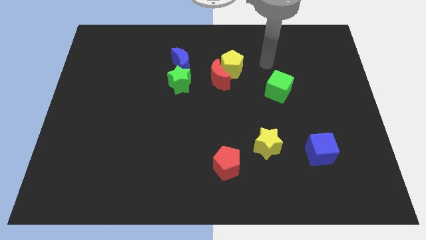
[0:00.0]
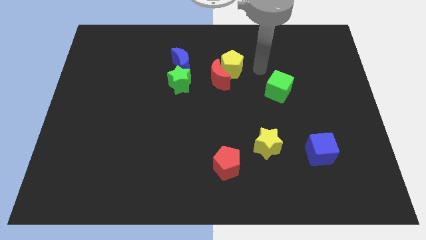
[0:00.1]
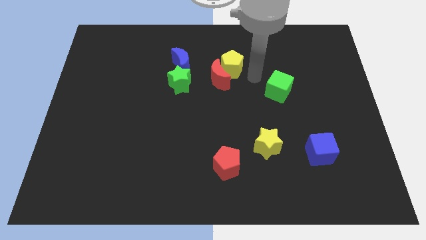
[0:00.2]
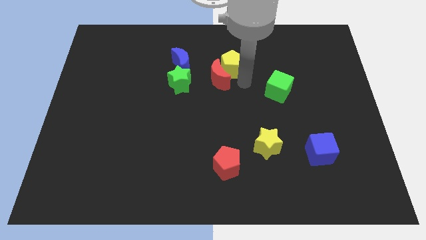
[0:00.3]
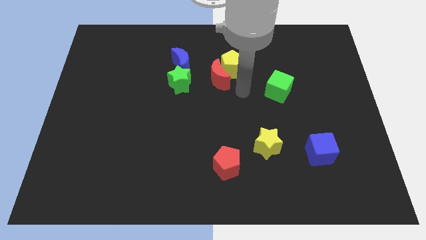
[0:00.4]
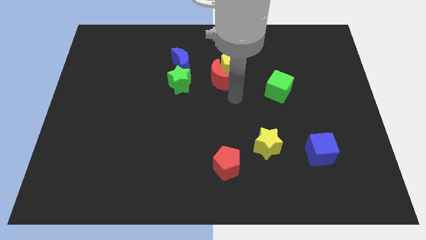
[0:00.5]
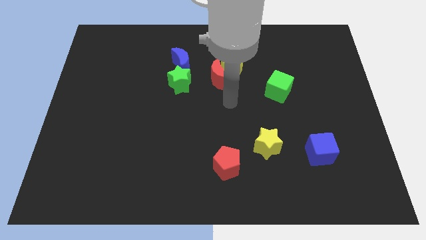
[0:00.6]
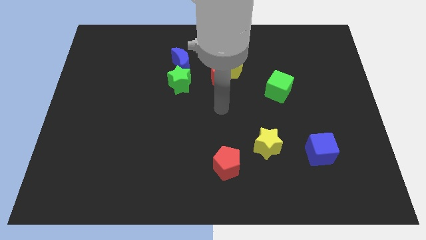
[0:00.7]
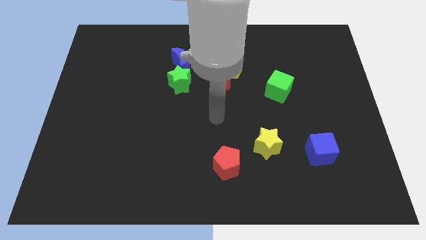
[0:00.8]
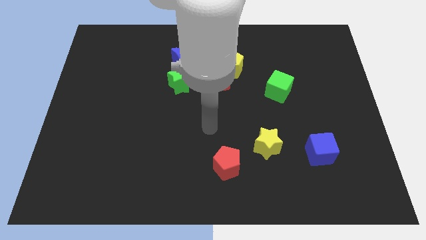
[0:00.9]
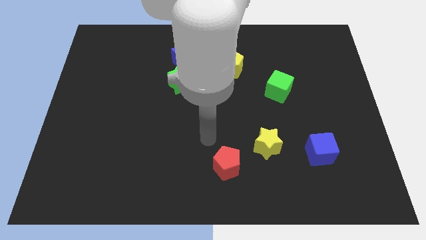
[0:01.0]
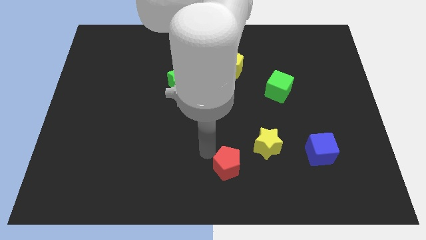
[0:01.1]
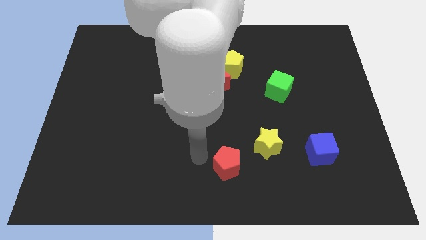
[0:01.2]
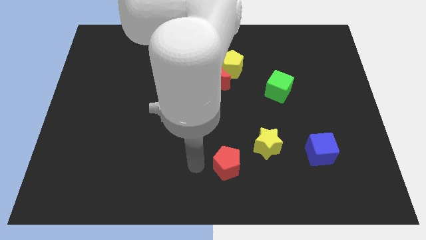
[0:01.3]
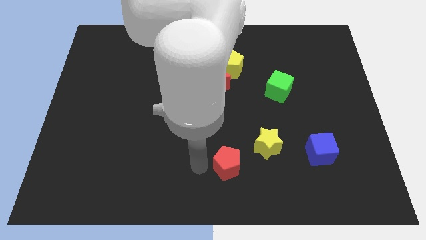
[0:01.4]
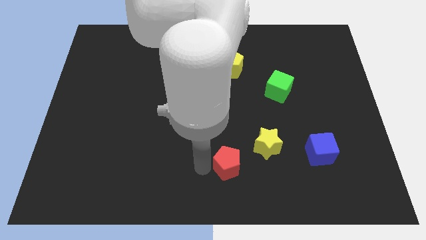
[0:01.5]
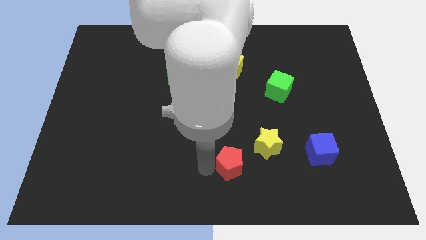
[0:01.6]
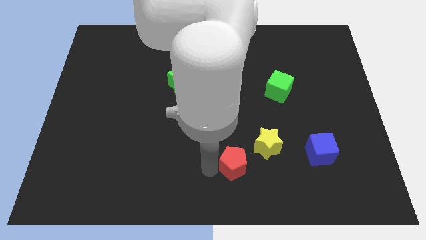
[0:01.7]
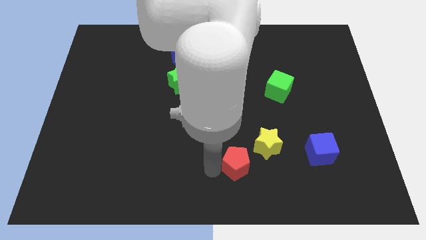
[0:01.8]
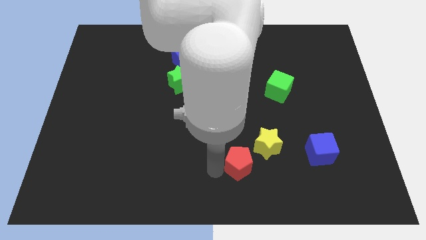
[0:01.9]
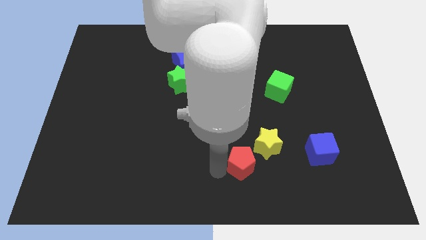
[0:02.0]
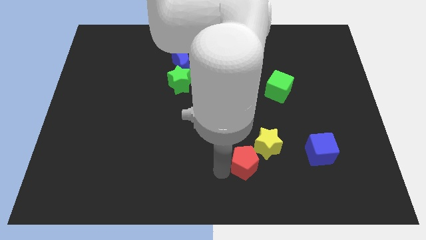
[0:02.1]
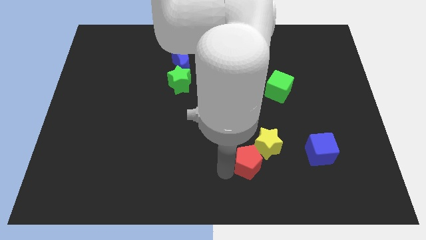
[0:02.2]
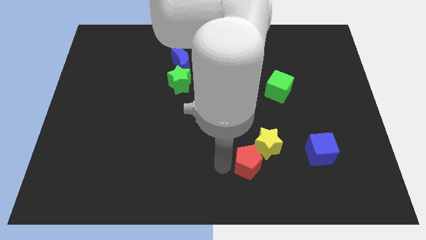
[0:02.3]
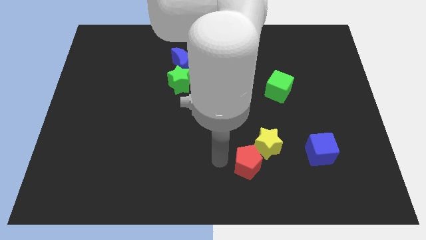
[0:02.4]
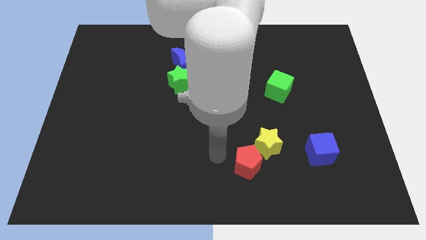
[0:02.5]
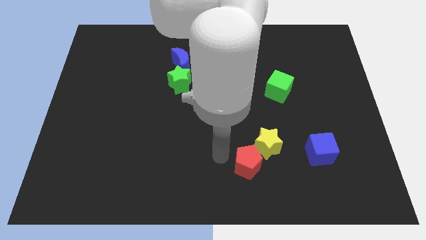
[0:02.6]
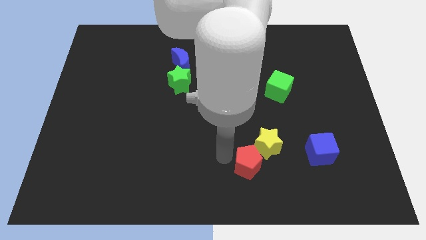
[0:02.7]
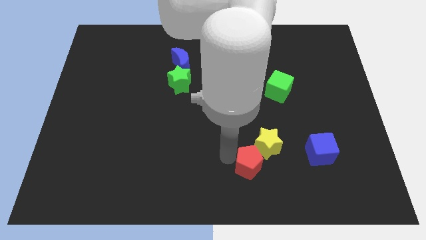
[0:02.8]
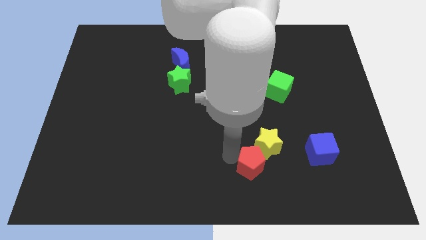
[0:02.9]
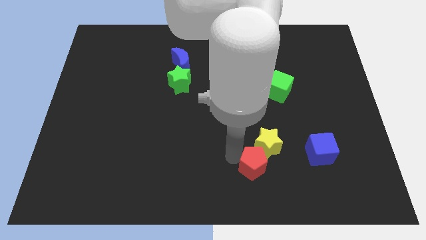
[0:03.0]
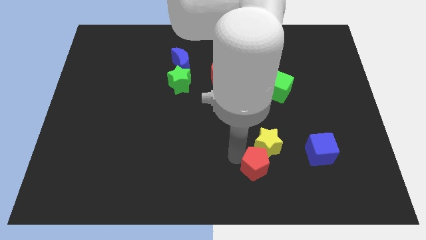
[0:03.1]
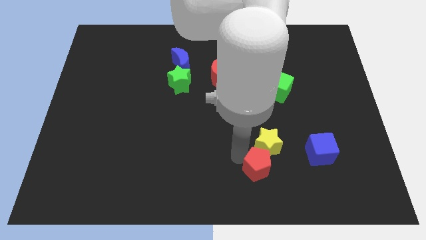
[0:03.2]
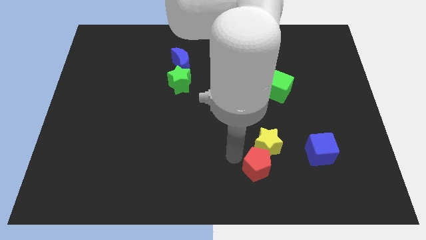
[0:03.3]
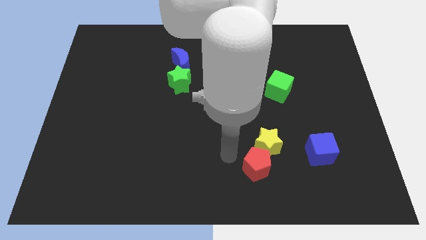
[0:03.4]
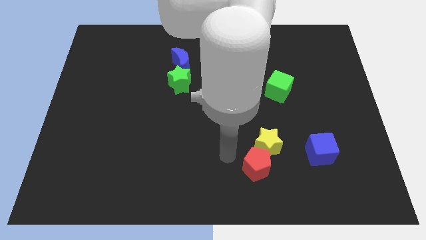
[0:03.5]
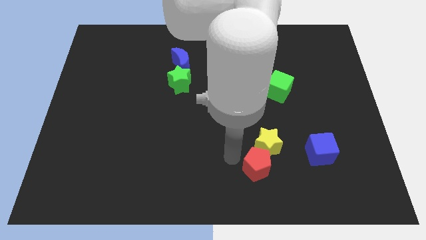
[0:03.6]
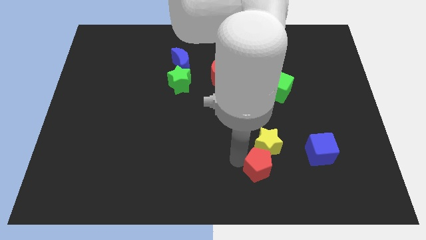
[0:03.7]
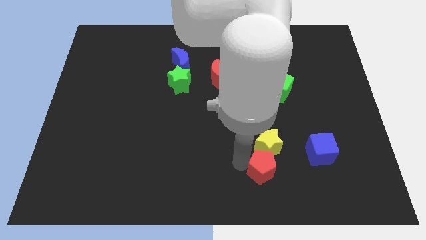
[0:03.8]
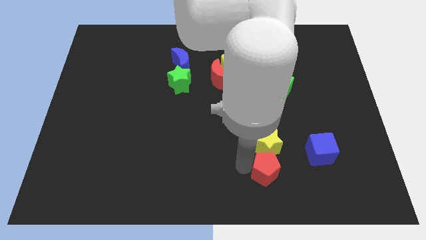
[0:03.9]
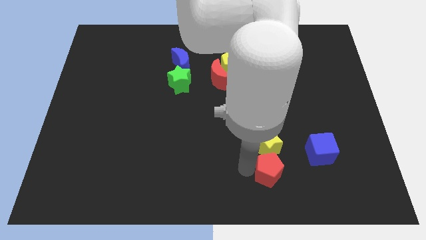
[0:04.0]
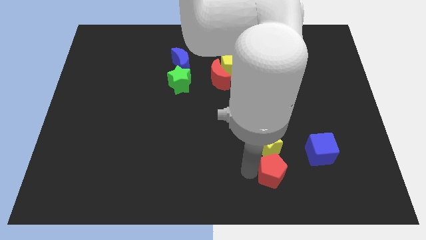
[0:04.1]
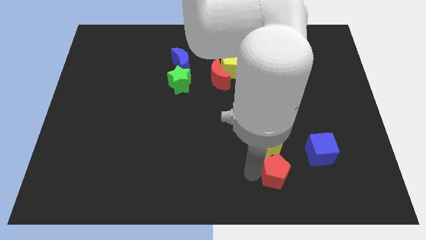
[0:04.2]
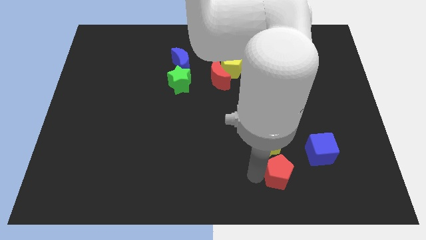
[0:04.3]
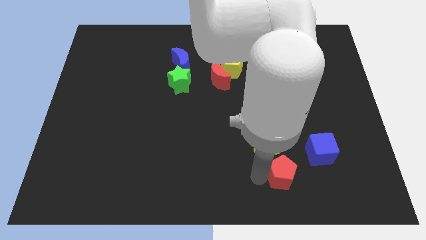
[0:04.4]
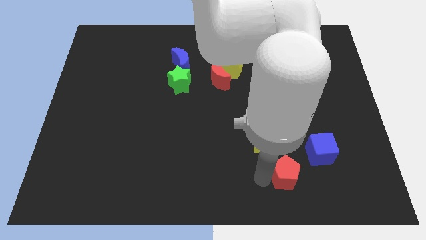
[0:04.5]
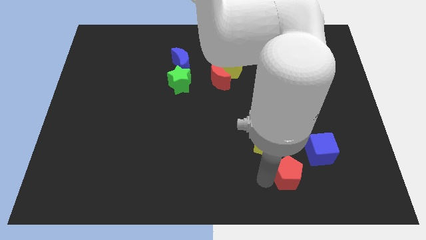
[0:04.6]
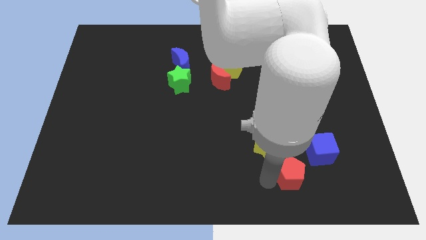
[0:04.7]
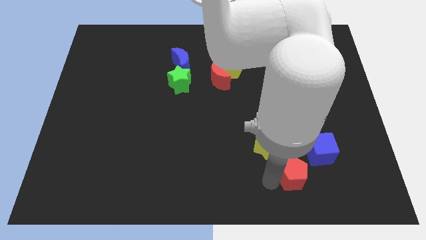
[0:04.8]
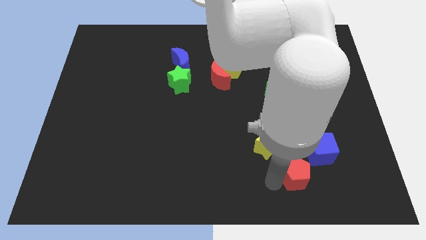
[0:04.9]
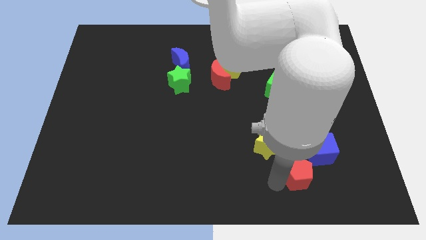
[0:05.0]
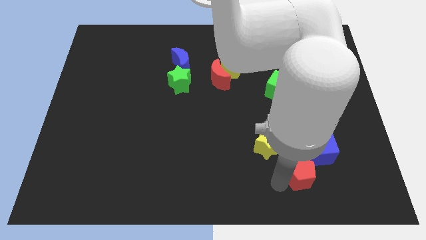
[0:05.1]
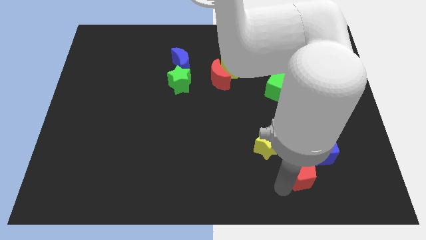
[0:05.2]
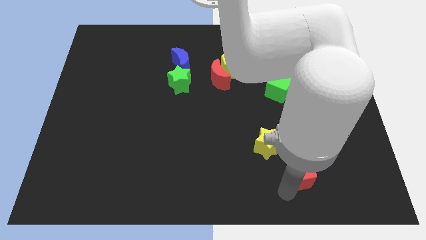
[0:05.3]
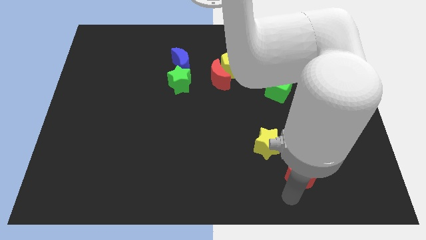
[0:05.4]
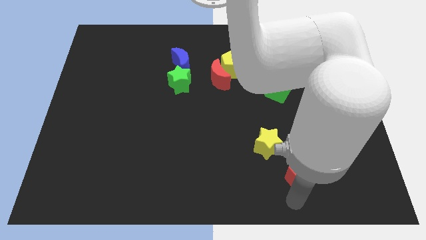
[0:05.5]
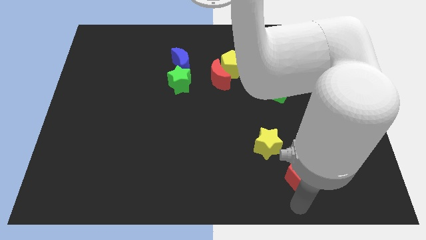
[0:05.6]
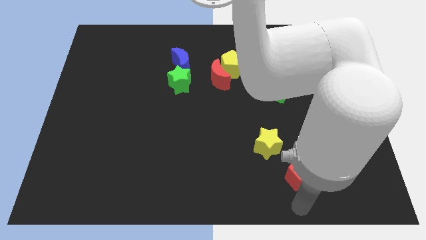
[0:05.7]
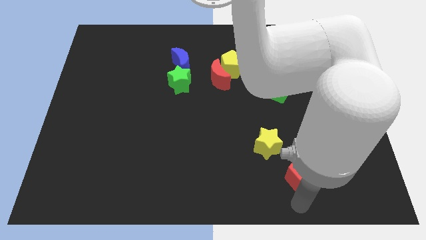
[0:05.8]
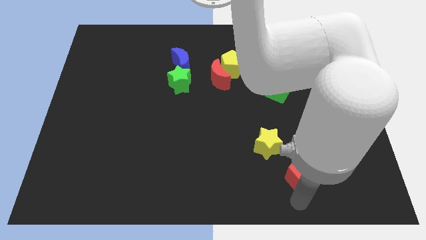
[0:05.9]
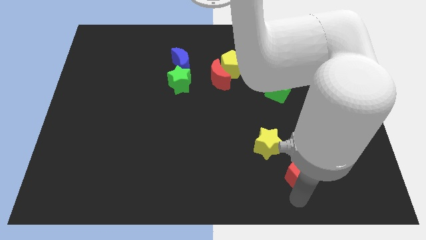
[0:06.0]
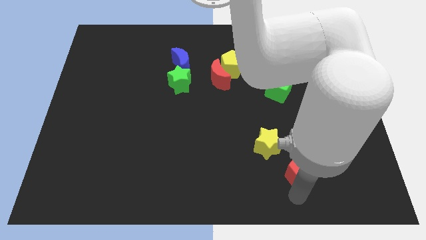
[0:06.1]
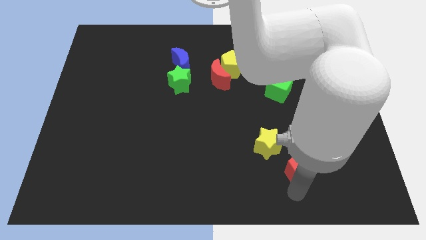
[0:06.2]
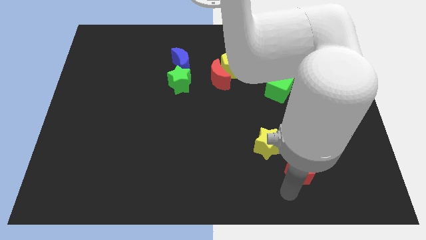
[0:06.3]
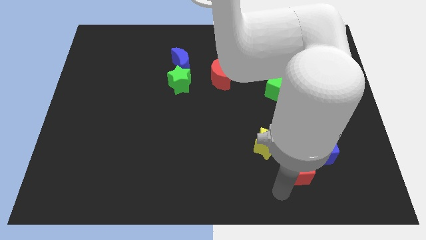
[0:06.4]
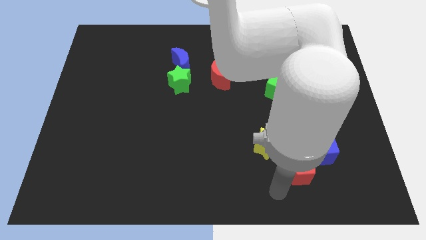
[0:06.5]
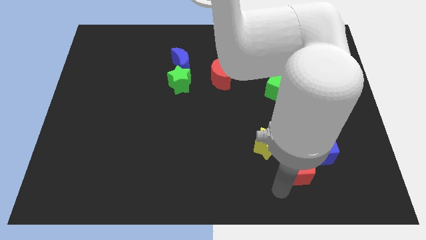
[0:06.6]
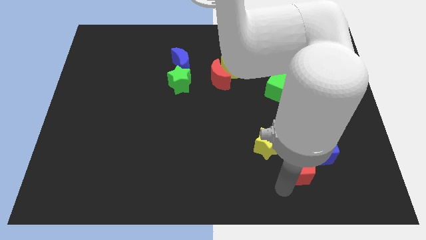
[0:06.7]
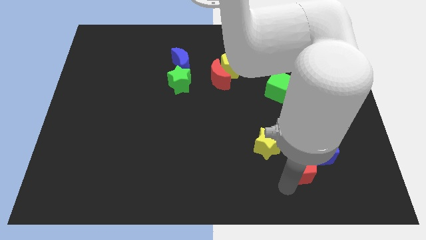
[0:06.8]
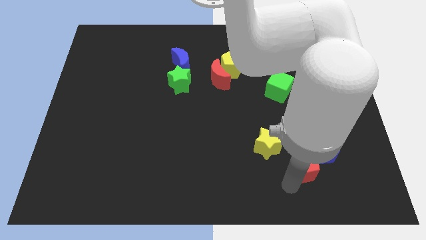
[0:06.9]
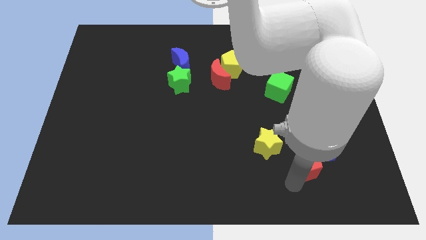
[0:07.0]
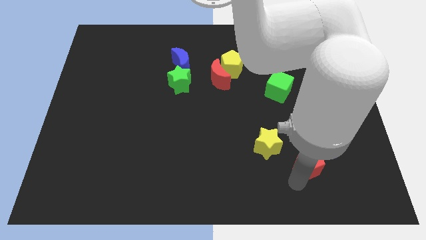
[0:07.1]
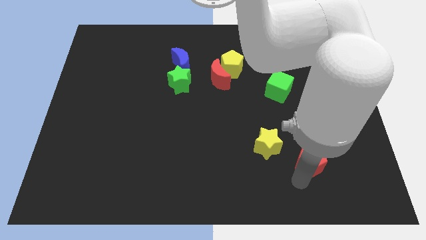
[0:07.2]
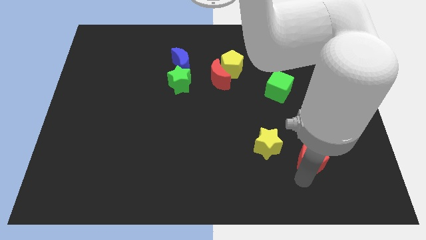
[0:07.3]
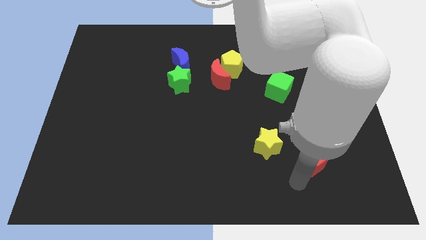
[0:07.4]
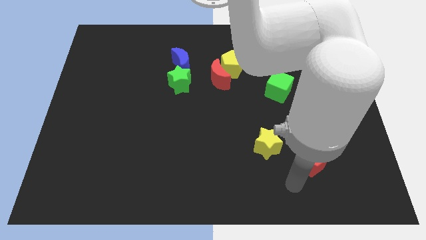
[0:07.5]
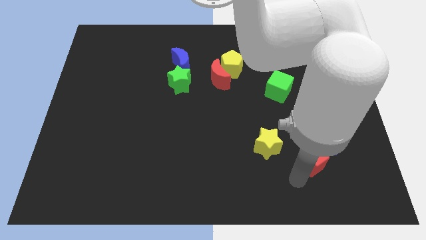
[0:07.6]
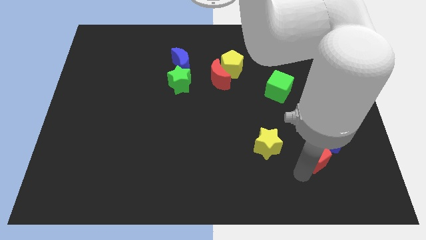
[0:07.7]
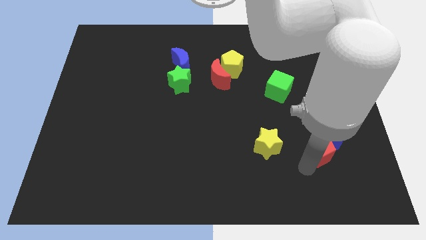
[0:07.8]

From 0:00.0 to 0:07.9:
slide the red pentagon to the blue cube
